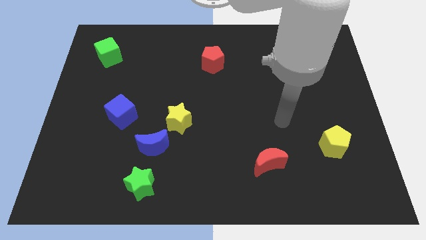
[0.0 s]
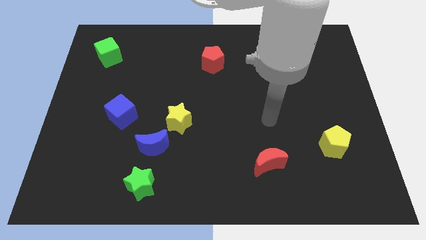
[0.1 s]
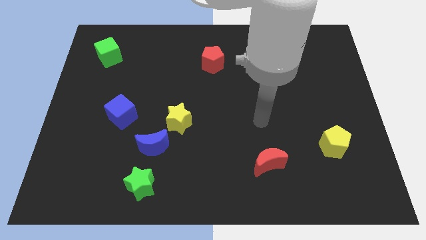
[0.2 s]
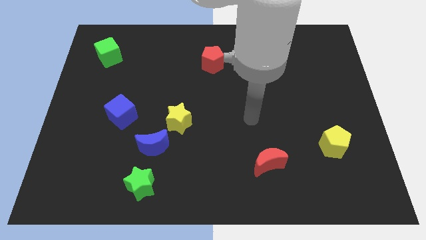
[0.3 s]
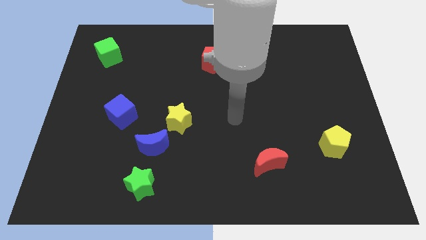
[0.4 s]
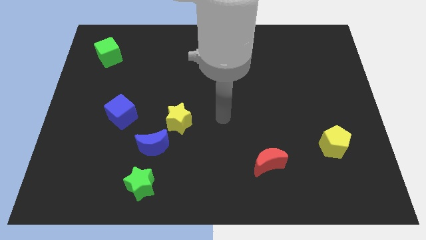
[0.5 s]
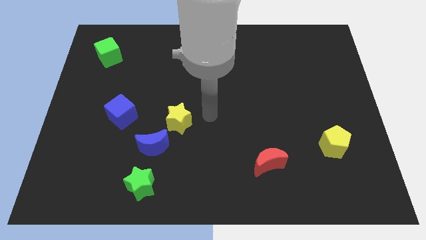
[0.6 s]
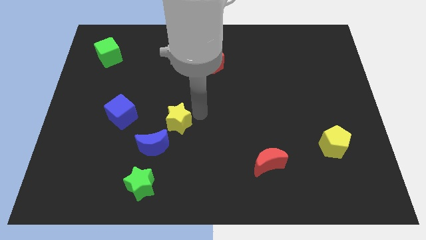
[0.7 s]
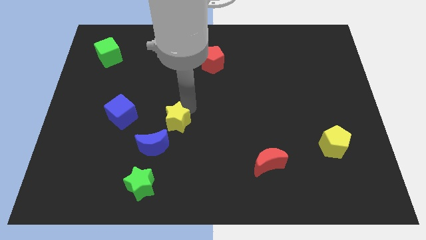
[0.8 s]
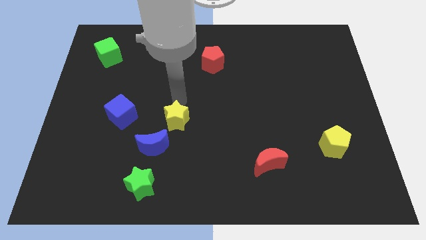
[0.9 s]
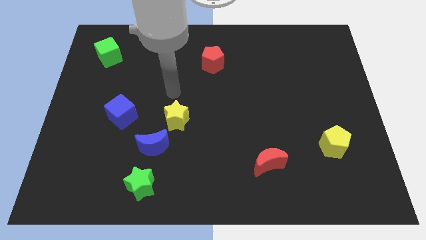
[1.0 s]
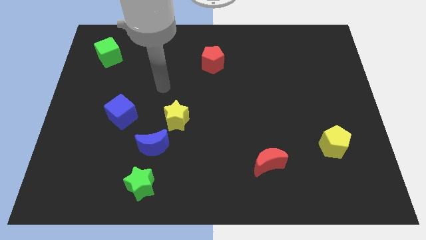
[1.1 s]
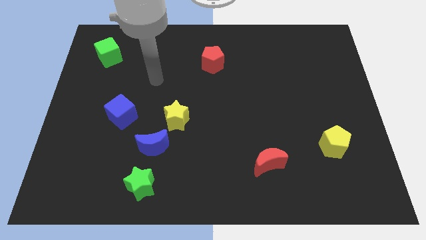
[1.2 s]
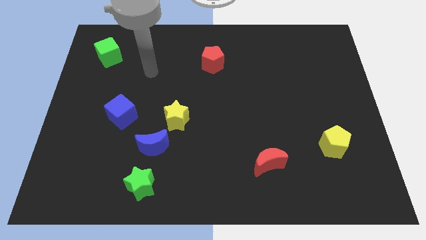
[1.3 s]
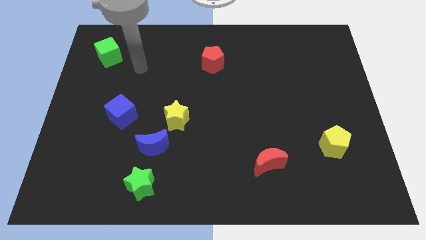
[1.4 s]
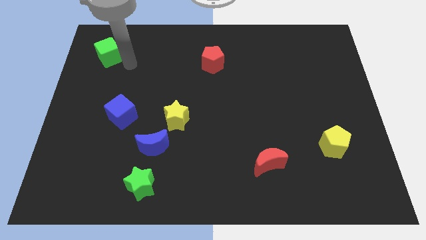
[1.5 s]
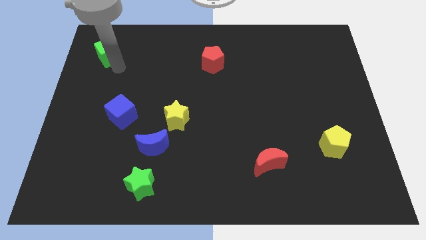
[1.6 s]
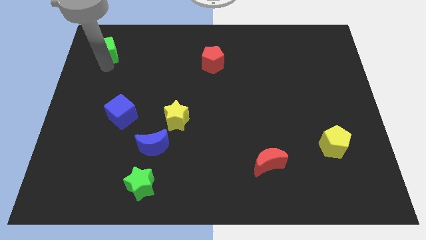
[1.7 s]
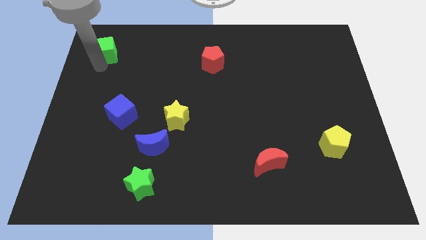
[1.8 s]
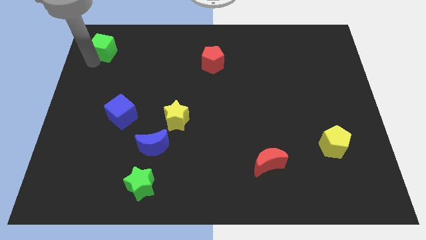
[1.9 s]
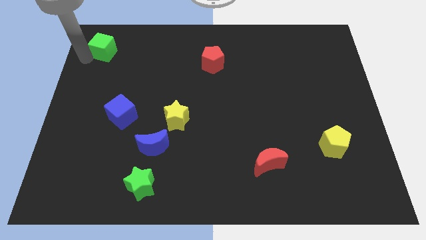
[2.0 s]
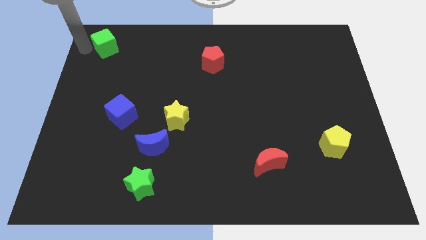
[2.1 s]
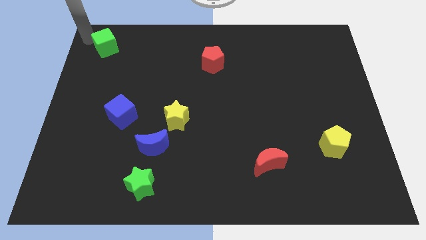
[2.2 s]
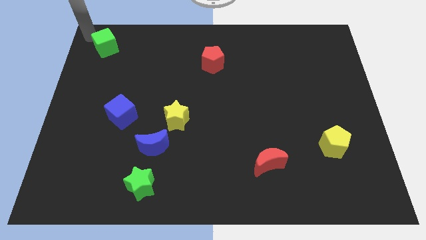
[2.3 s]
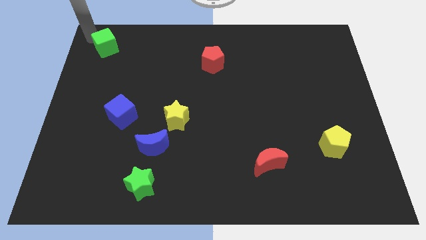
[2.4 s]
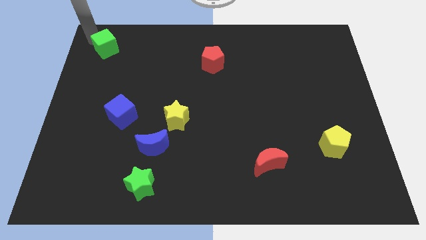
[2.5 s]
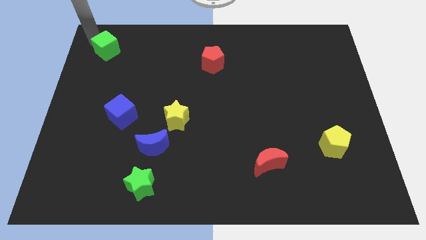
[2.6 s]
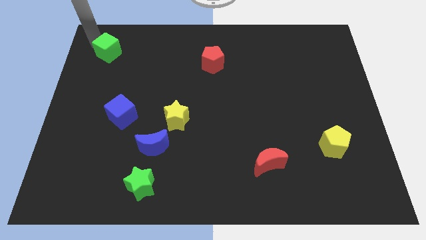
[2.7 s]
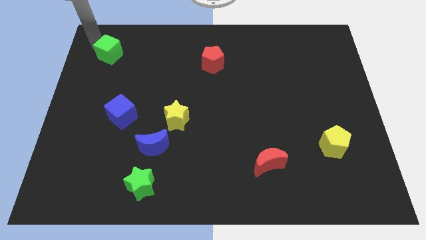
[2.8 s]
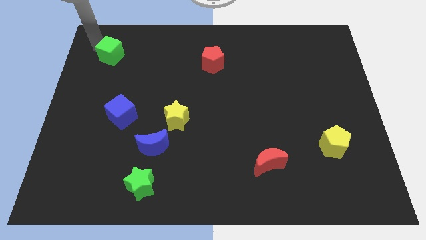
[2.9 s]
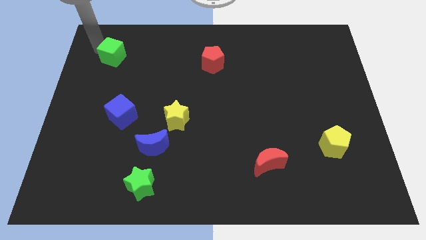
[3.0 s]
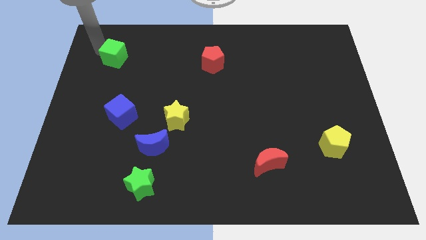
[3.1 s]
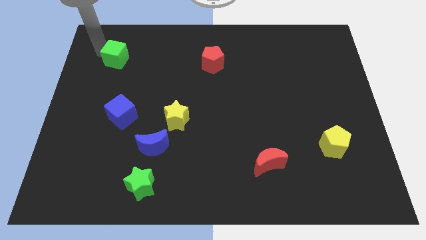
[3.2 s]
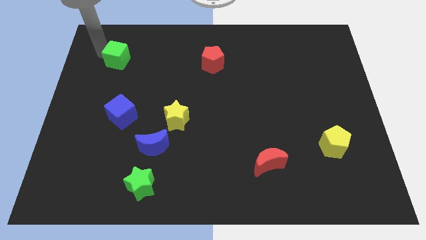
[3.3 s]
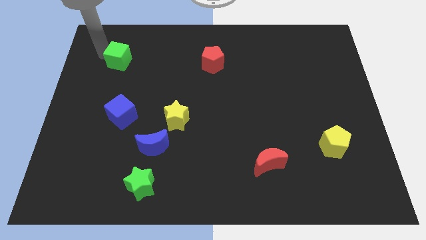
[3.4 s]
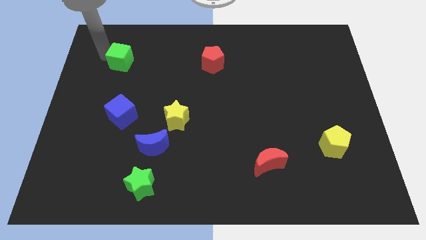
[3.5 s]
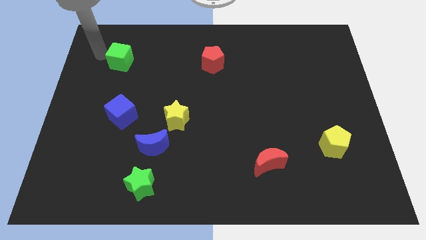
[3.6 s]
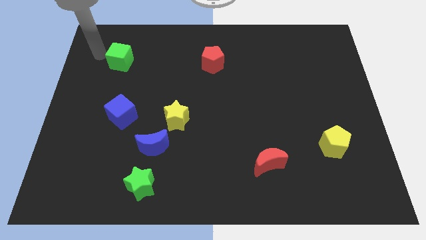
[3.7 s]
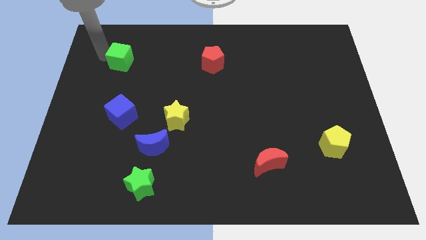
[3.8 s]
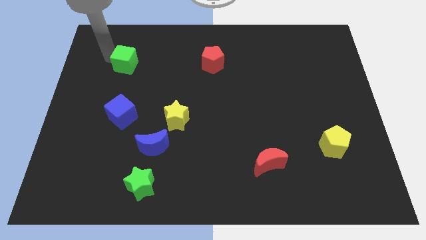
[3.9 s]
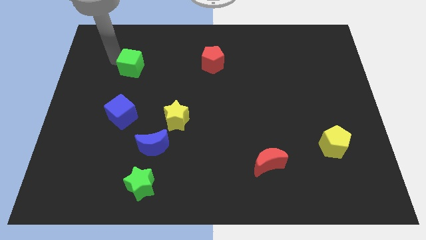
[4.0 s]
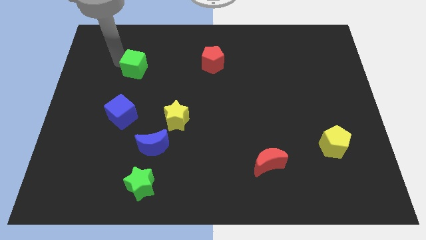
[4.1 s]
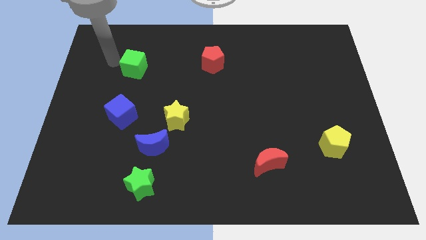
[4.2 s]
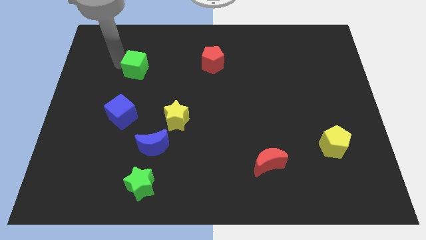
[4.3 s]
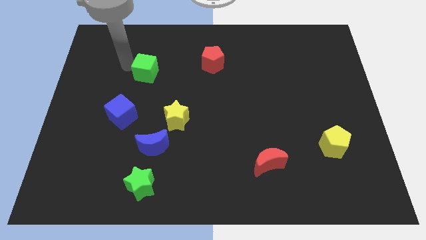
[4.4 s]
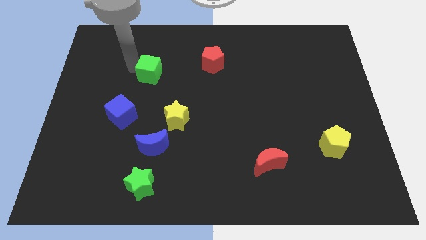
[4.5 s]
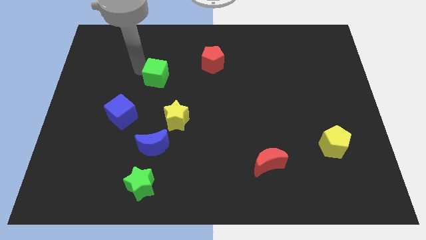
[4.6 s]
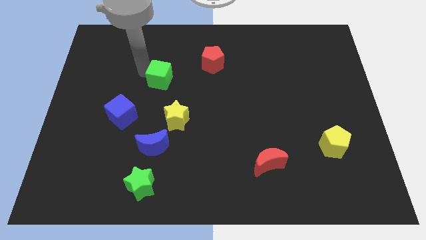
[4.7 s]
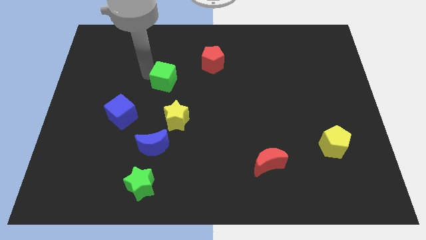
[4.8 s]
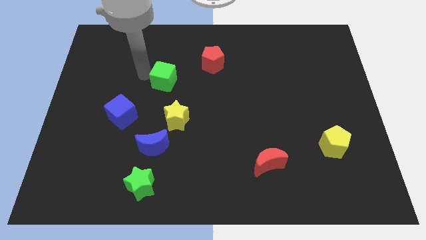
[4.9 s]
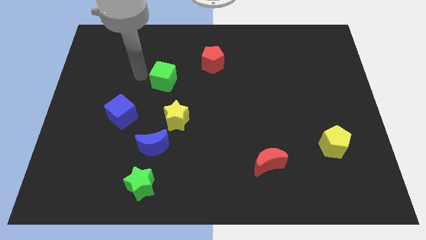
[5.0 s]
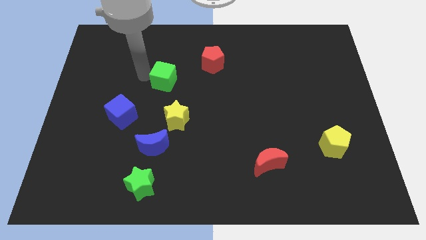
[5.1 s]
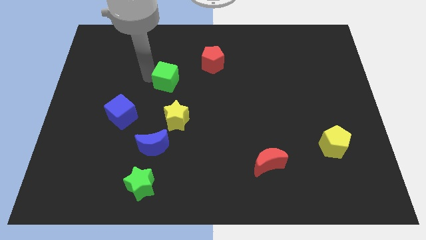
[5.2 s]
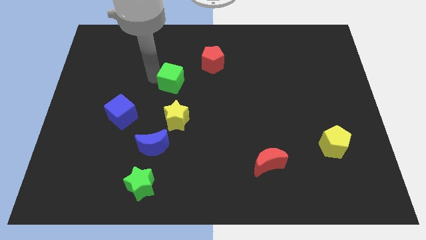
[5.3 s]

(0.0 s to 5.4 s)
put the green cube to the middle of the board
